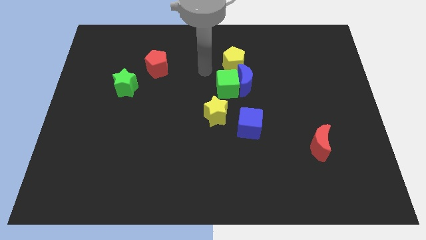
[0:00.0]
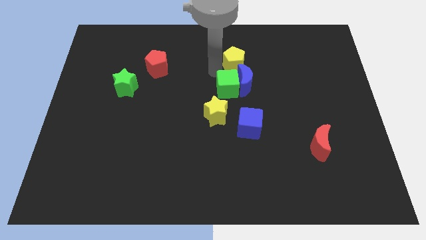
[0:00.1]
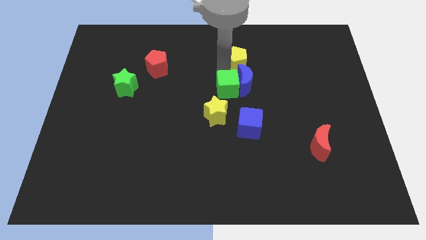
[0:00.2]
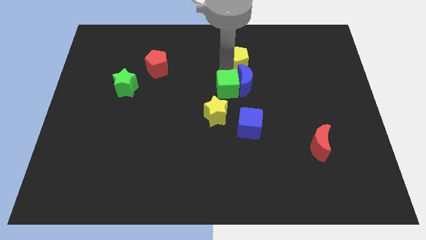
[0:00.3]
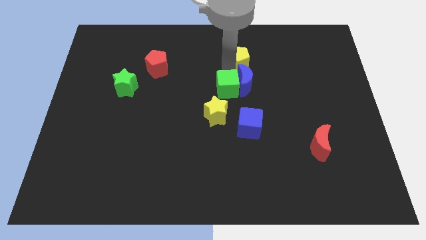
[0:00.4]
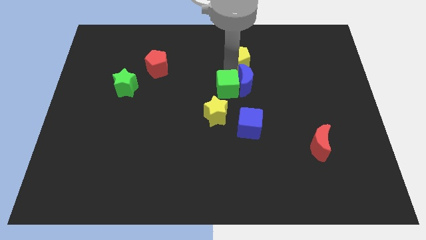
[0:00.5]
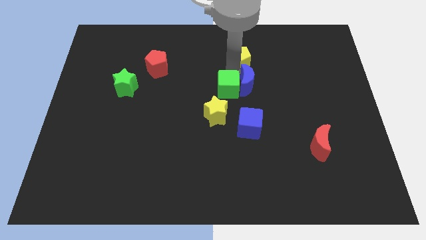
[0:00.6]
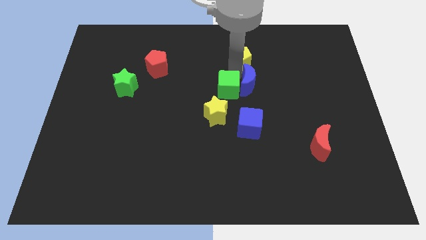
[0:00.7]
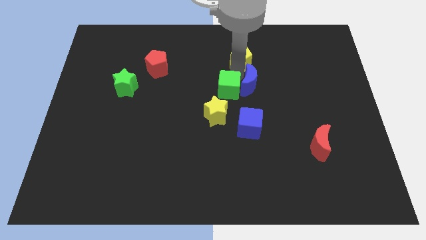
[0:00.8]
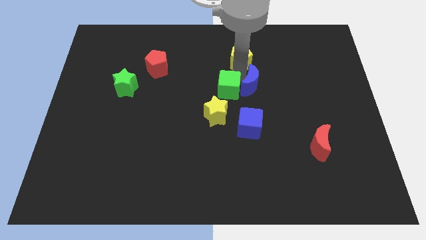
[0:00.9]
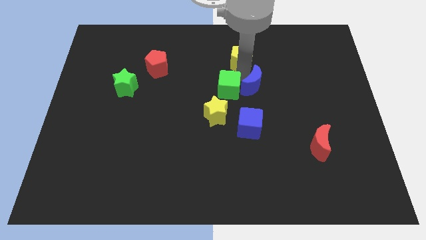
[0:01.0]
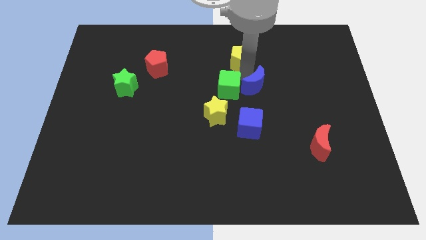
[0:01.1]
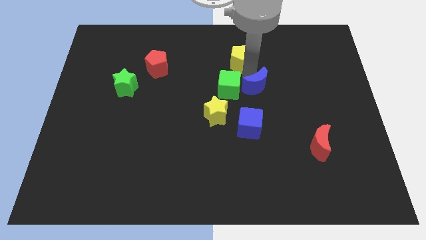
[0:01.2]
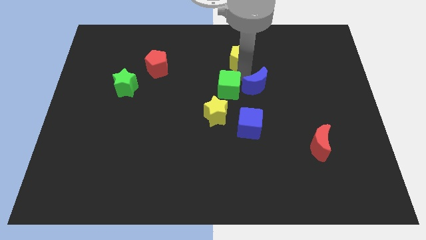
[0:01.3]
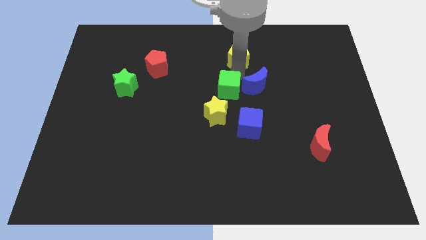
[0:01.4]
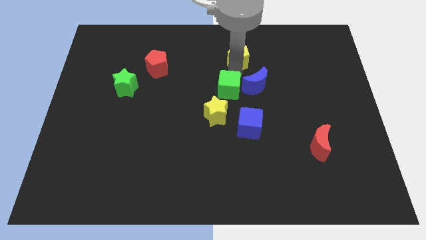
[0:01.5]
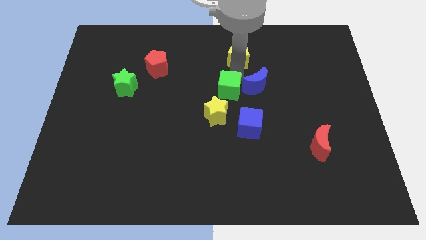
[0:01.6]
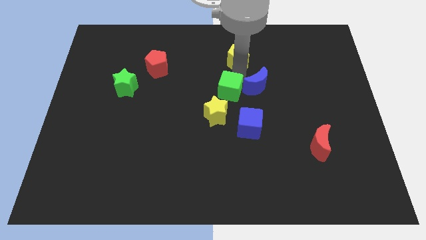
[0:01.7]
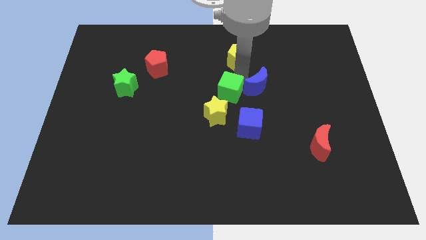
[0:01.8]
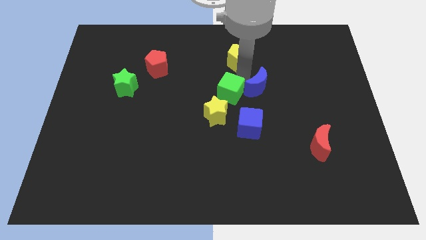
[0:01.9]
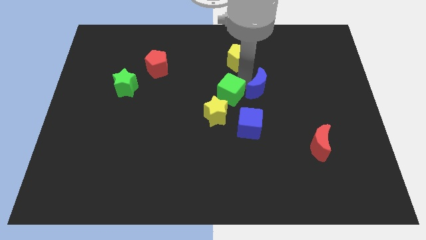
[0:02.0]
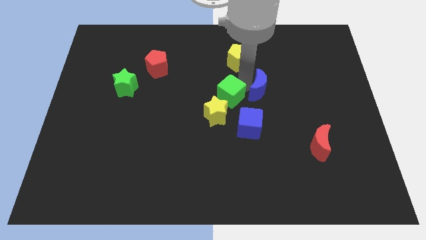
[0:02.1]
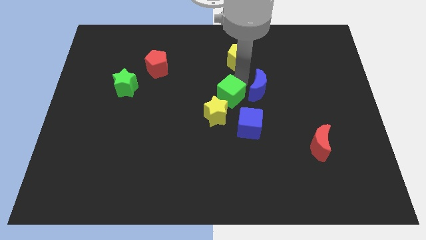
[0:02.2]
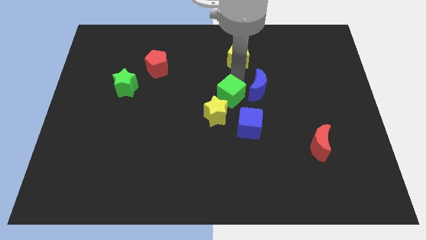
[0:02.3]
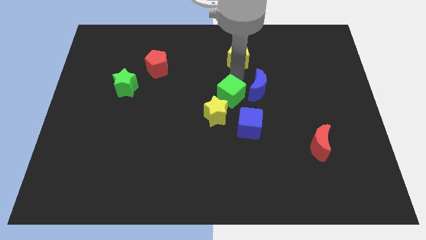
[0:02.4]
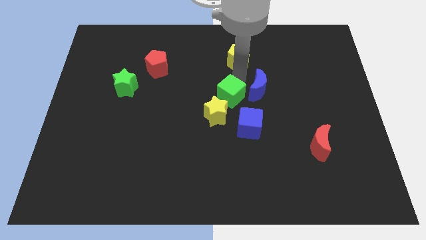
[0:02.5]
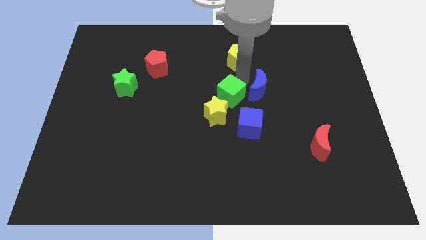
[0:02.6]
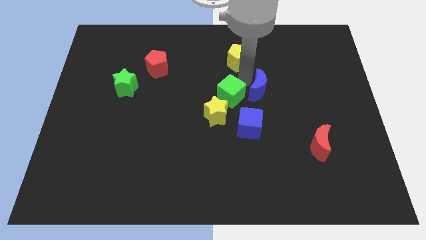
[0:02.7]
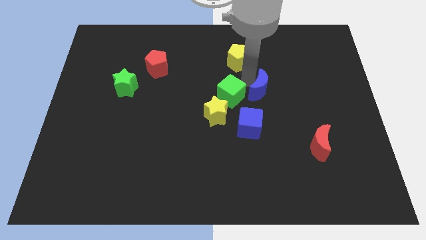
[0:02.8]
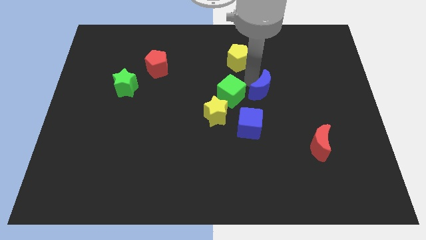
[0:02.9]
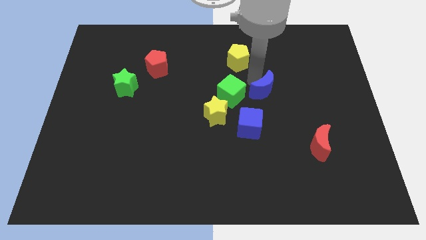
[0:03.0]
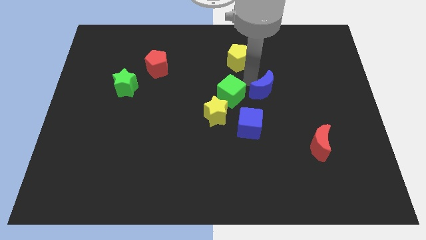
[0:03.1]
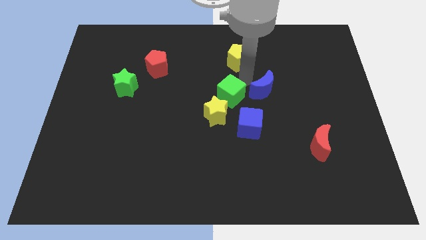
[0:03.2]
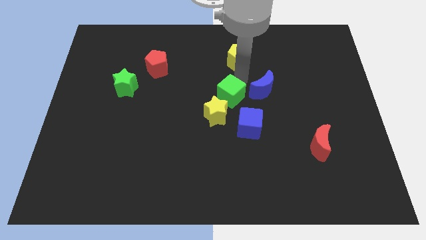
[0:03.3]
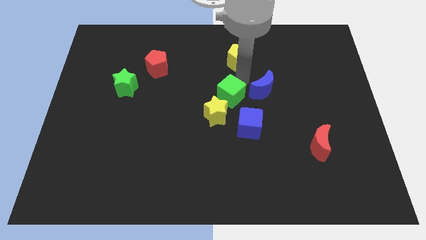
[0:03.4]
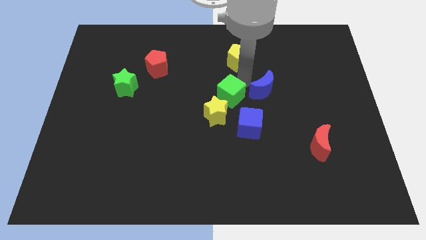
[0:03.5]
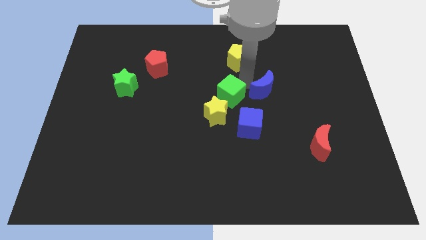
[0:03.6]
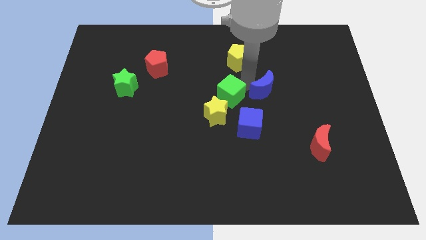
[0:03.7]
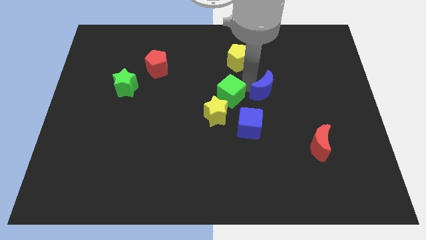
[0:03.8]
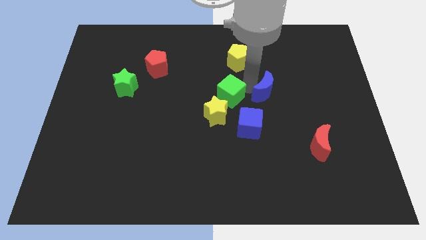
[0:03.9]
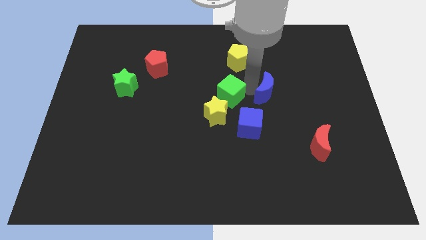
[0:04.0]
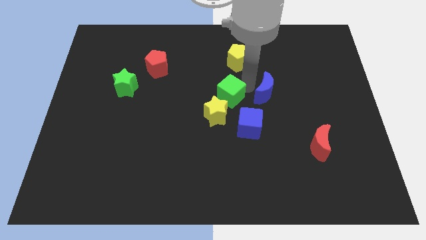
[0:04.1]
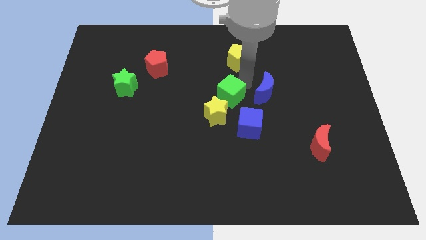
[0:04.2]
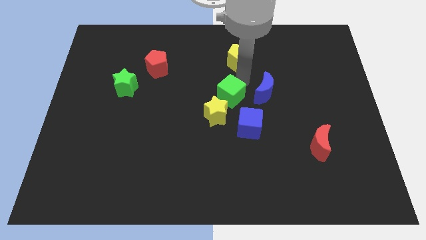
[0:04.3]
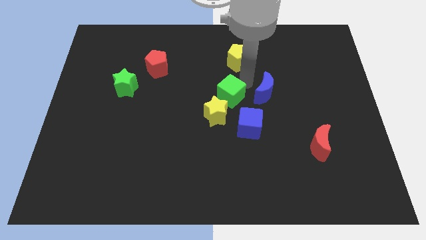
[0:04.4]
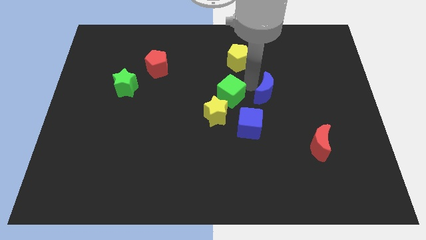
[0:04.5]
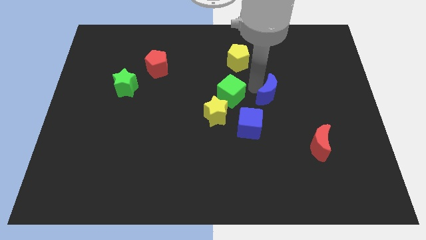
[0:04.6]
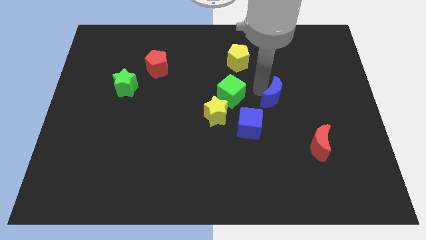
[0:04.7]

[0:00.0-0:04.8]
pull the blue moon apart from the green cube and yellow pentagon

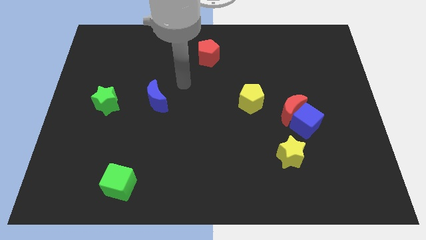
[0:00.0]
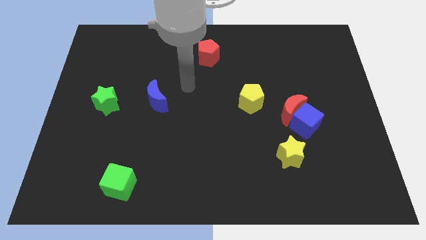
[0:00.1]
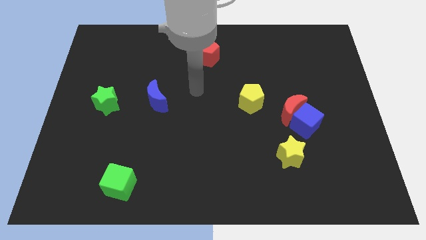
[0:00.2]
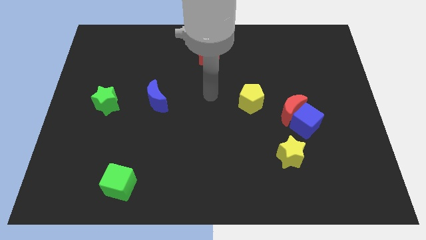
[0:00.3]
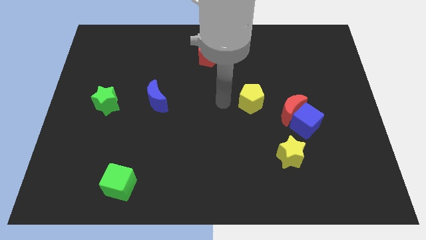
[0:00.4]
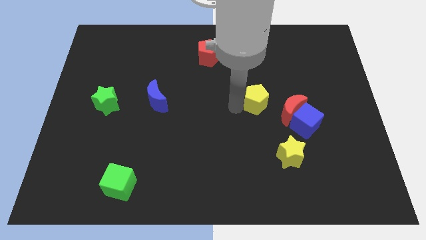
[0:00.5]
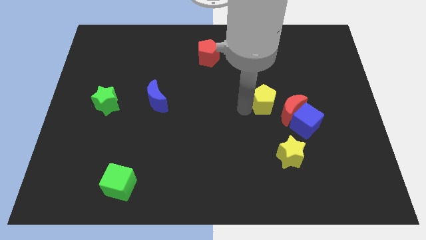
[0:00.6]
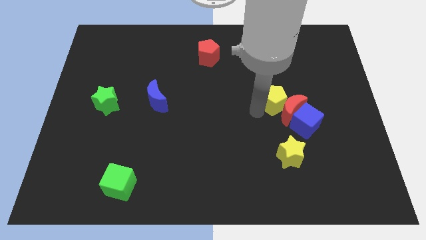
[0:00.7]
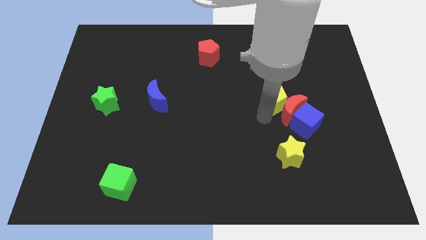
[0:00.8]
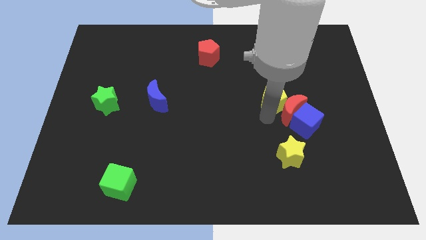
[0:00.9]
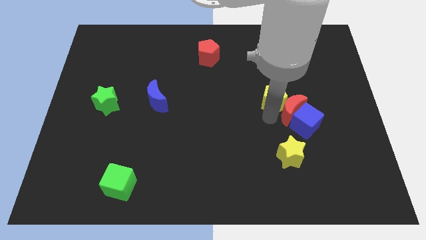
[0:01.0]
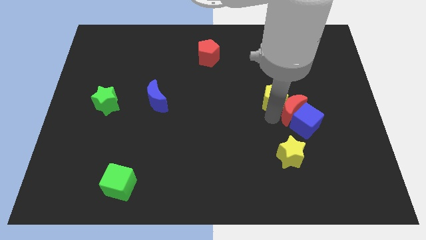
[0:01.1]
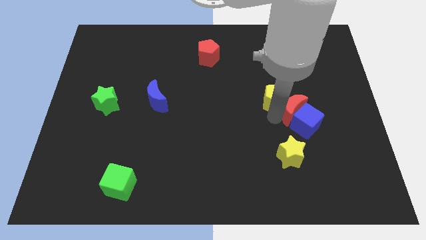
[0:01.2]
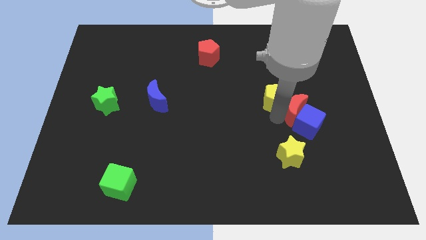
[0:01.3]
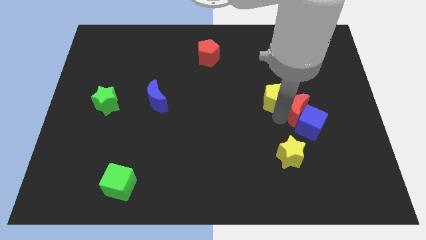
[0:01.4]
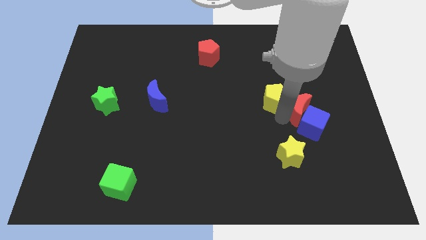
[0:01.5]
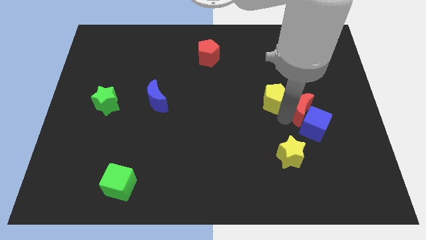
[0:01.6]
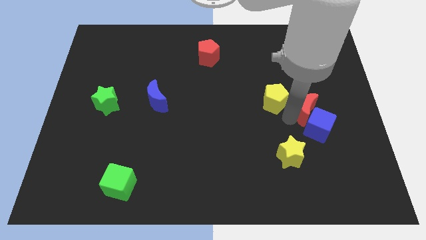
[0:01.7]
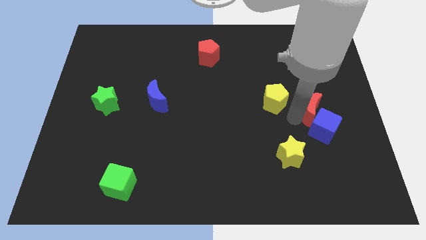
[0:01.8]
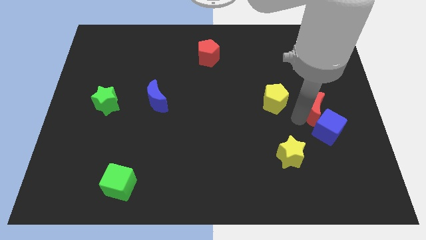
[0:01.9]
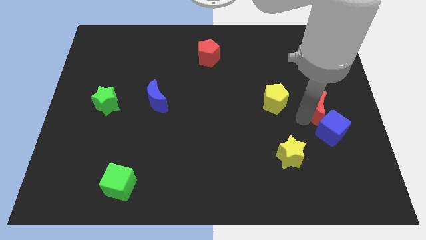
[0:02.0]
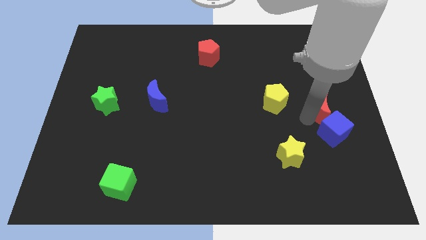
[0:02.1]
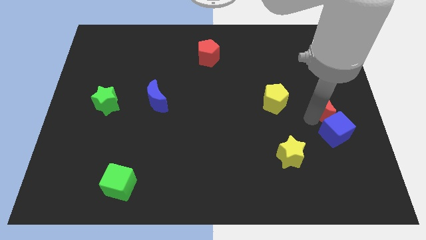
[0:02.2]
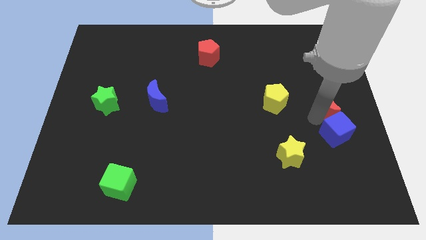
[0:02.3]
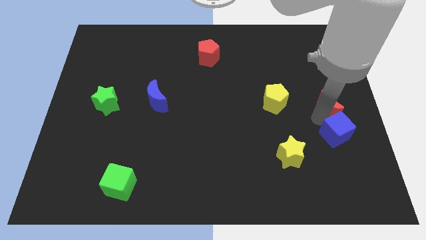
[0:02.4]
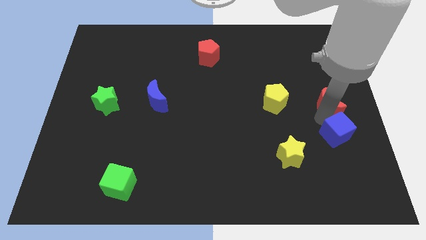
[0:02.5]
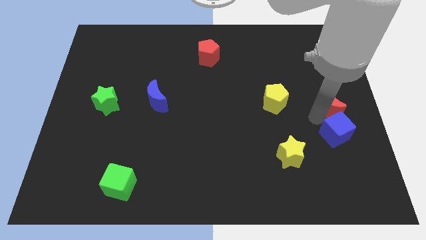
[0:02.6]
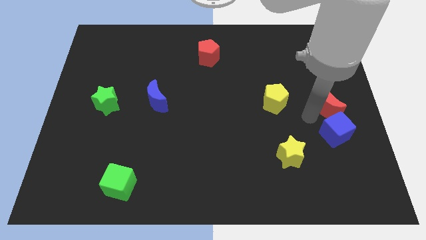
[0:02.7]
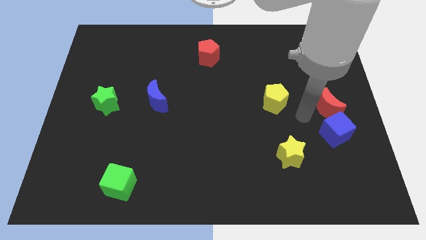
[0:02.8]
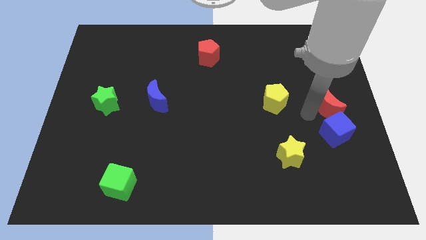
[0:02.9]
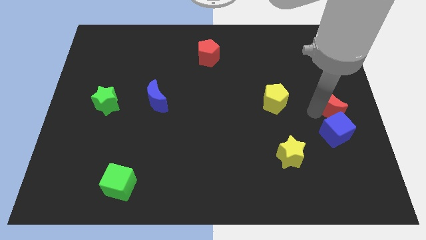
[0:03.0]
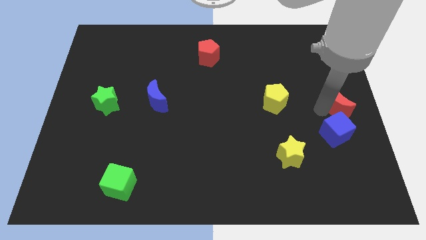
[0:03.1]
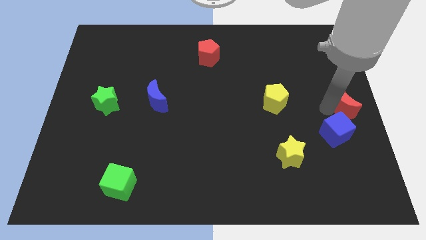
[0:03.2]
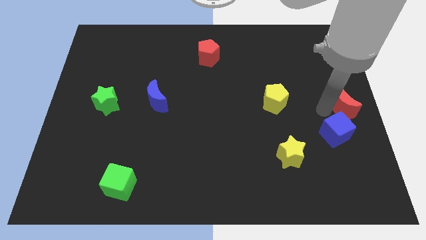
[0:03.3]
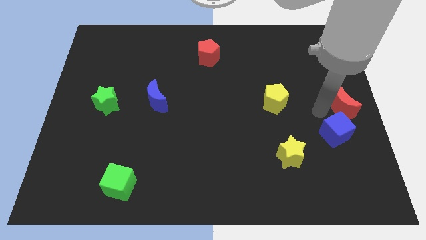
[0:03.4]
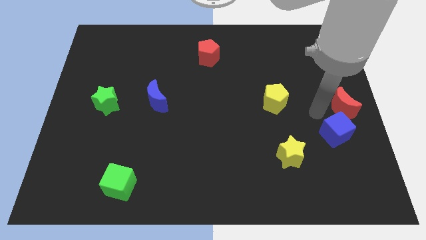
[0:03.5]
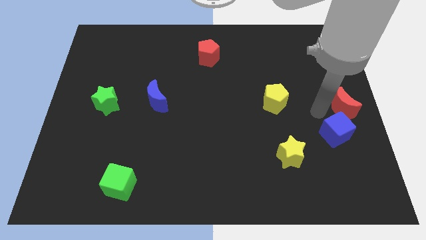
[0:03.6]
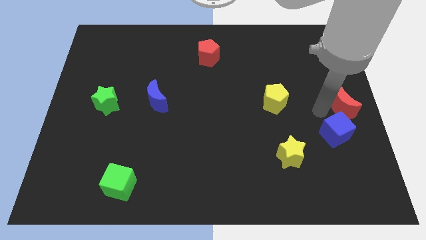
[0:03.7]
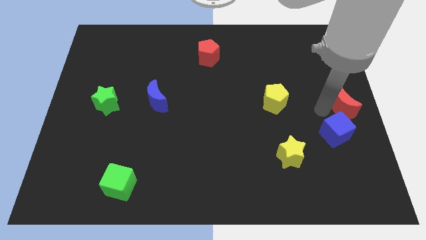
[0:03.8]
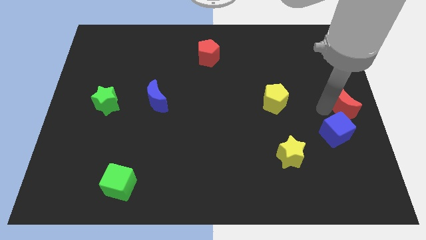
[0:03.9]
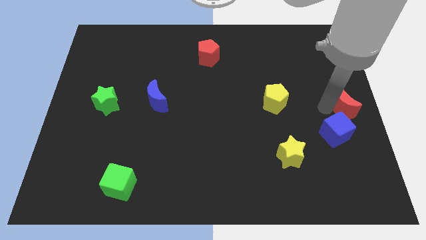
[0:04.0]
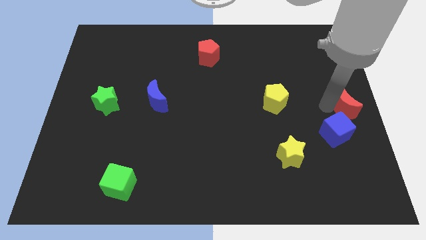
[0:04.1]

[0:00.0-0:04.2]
pull the red moon apart from the blue cube and yellow pentagon

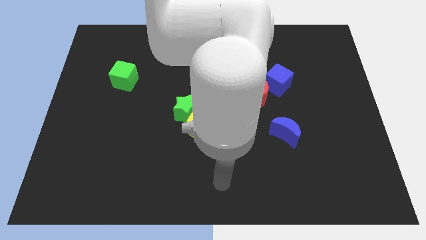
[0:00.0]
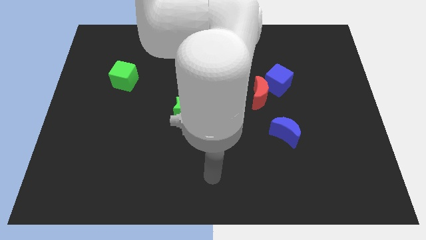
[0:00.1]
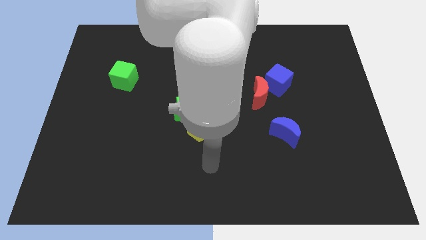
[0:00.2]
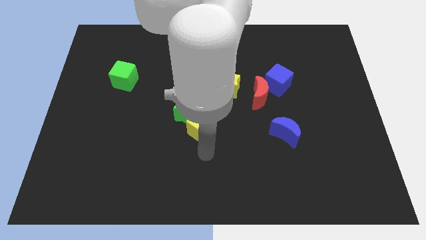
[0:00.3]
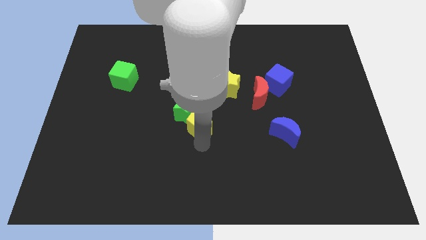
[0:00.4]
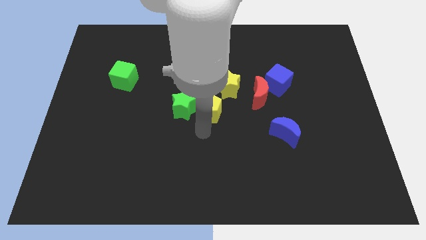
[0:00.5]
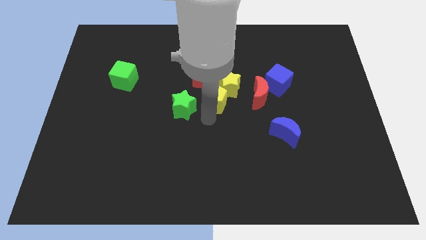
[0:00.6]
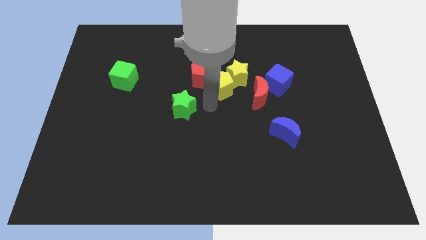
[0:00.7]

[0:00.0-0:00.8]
move the green star away from the yellow pentagon
